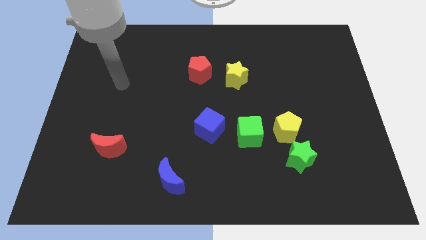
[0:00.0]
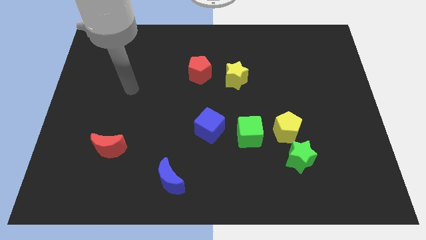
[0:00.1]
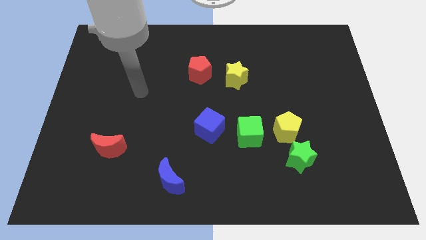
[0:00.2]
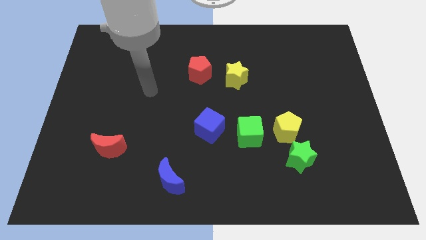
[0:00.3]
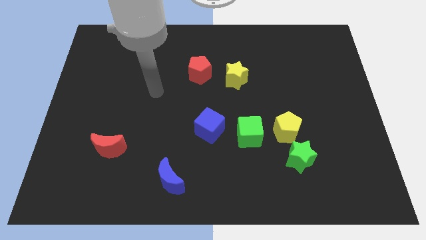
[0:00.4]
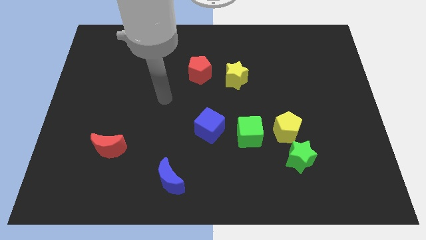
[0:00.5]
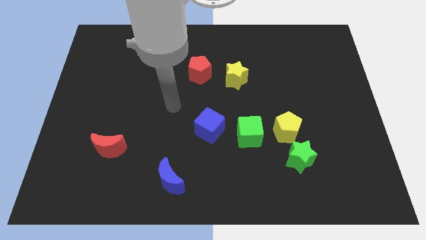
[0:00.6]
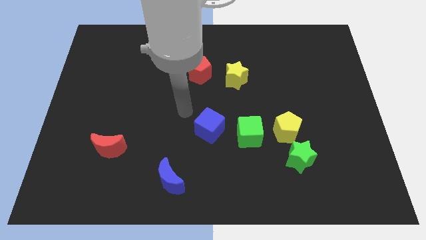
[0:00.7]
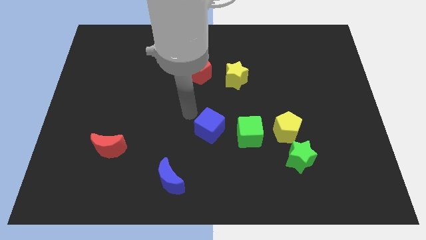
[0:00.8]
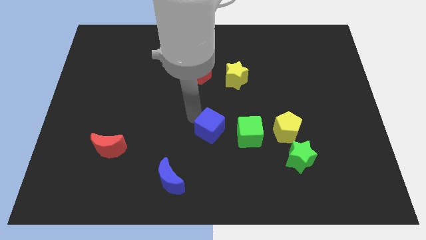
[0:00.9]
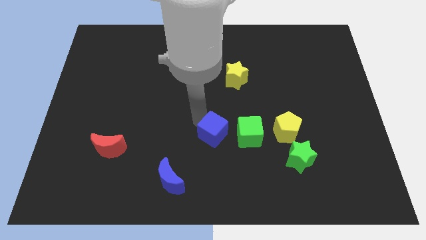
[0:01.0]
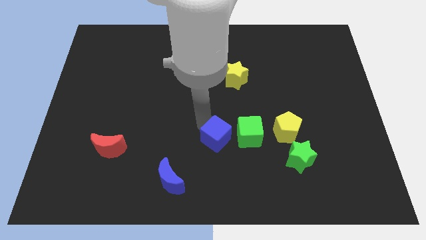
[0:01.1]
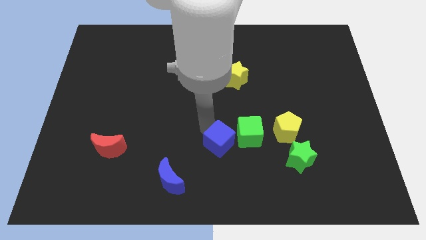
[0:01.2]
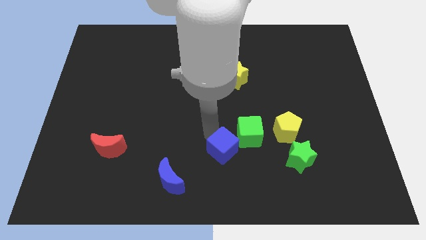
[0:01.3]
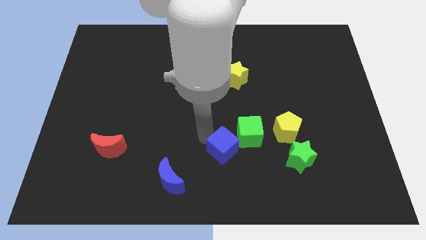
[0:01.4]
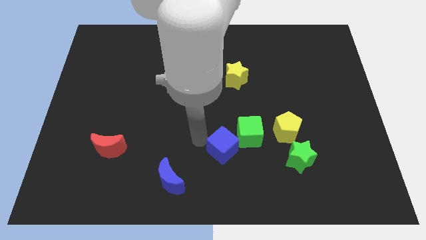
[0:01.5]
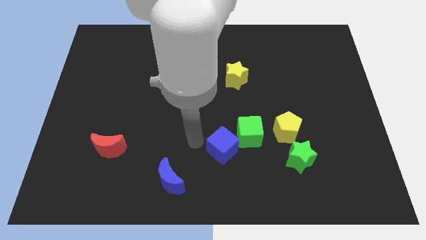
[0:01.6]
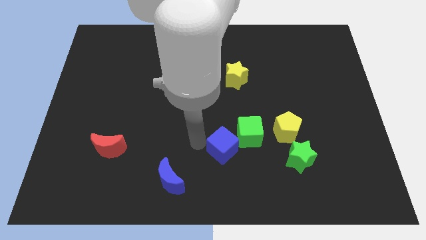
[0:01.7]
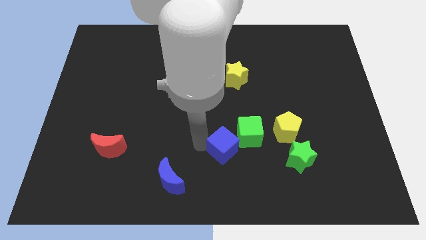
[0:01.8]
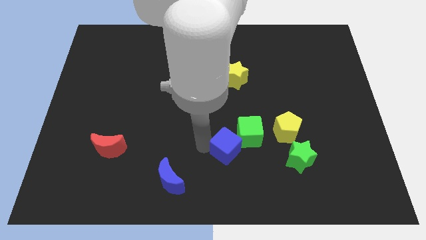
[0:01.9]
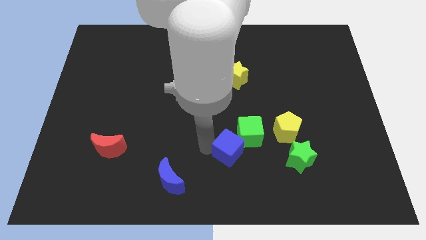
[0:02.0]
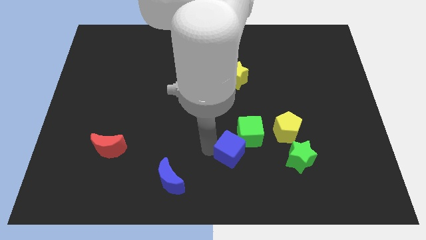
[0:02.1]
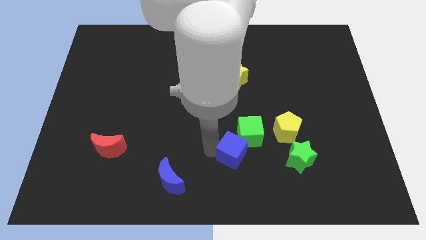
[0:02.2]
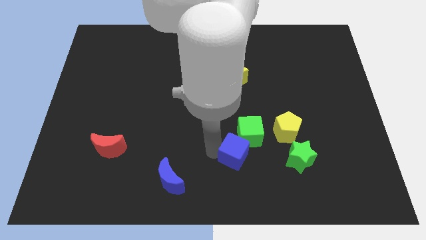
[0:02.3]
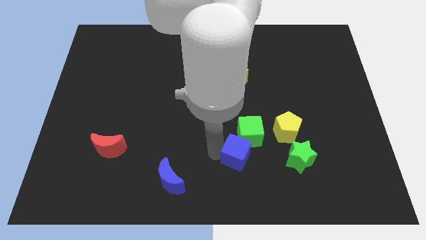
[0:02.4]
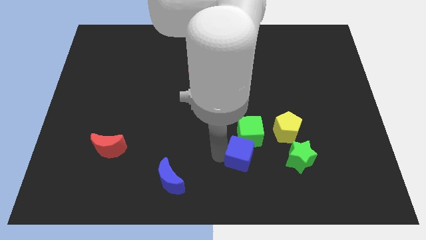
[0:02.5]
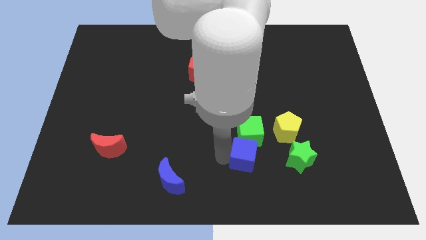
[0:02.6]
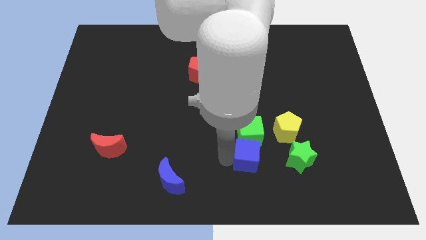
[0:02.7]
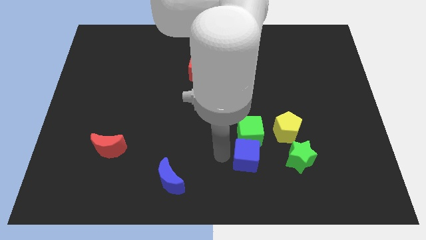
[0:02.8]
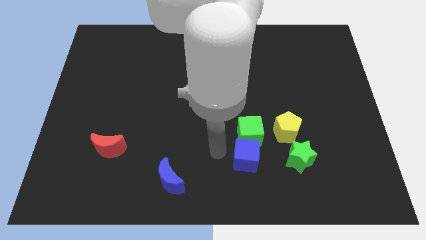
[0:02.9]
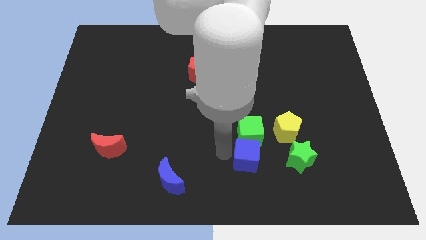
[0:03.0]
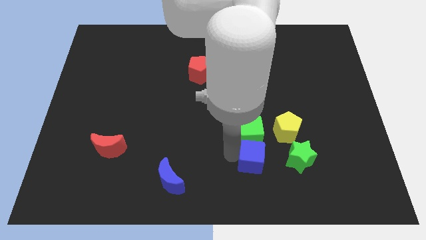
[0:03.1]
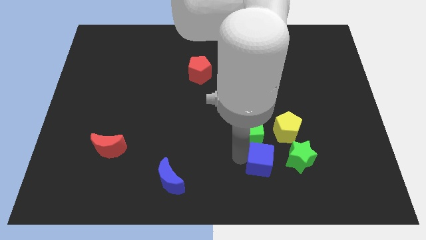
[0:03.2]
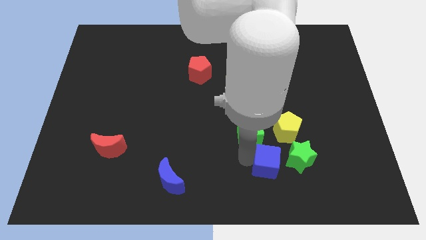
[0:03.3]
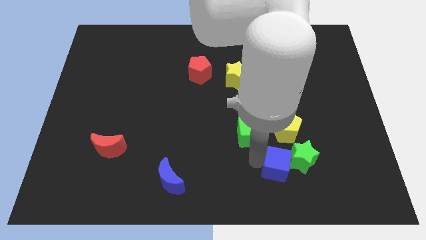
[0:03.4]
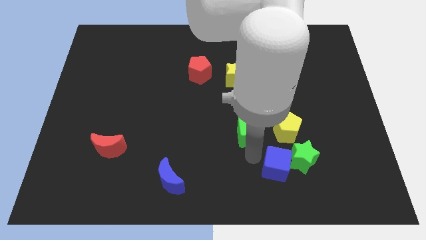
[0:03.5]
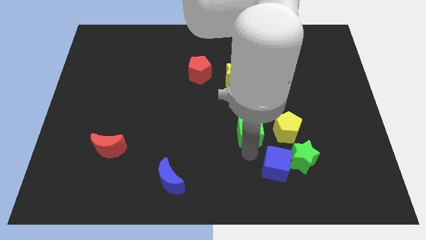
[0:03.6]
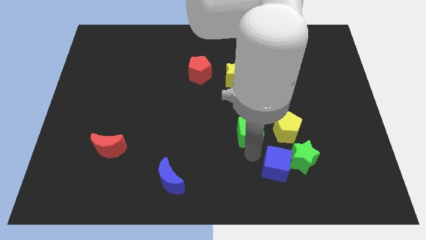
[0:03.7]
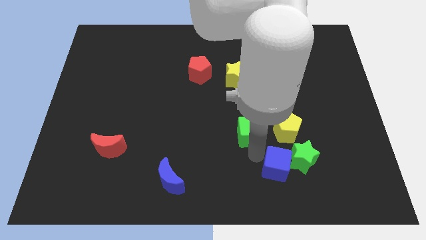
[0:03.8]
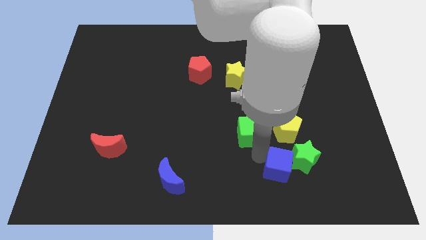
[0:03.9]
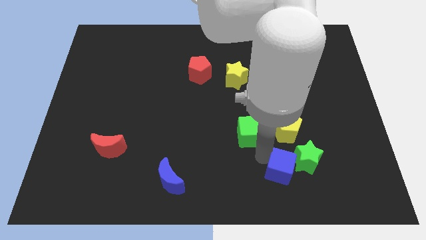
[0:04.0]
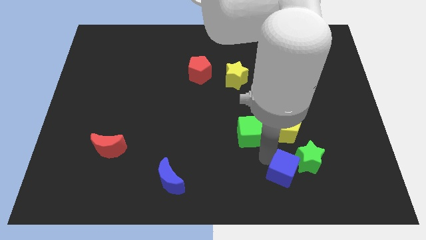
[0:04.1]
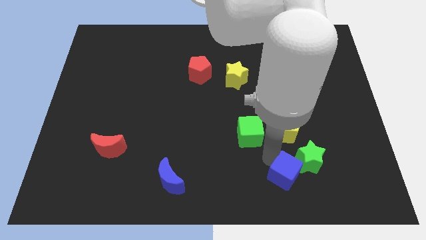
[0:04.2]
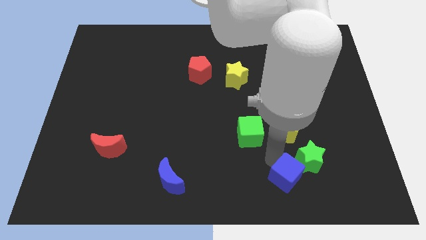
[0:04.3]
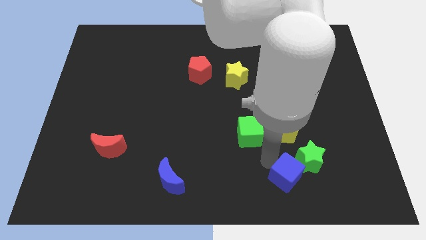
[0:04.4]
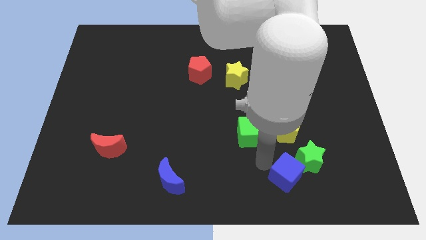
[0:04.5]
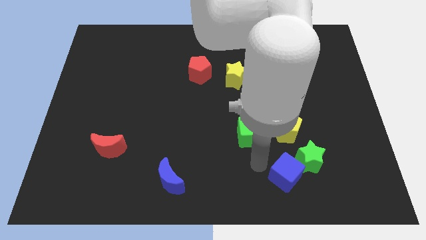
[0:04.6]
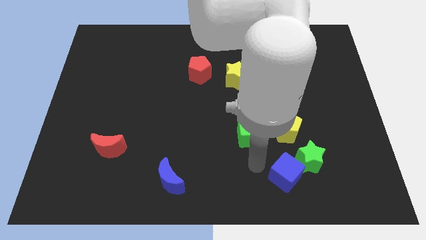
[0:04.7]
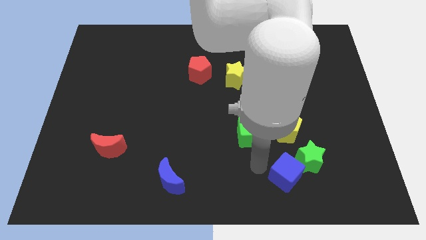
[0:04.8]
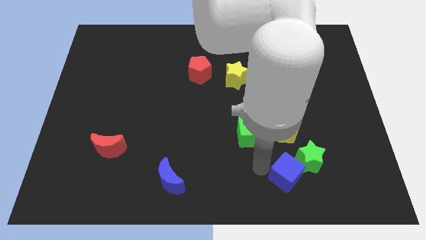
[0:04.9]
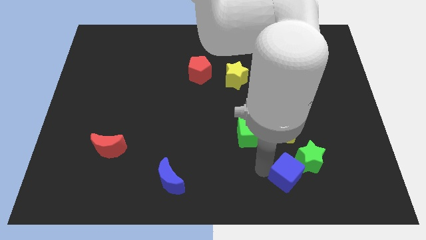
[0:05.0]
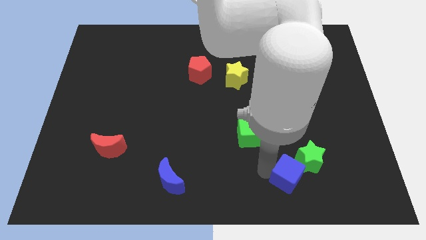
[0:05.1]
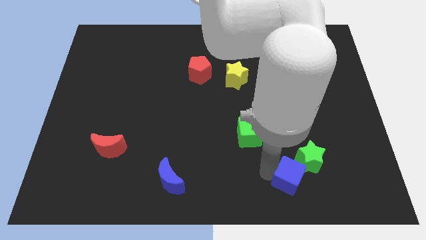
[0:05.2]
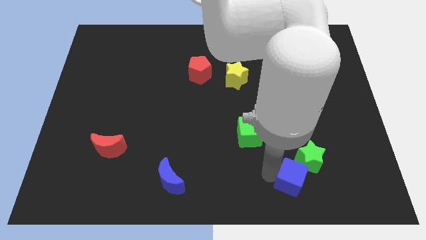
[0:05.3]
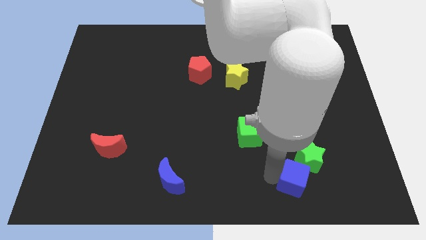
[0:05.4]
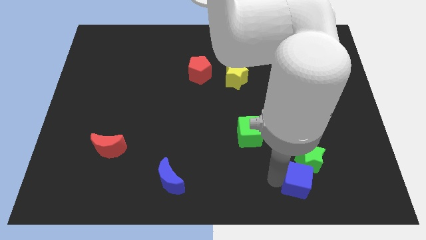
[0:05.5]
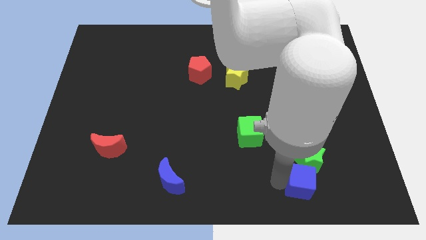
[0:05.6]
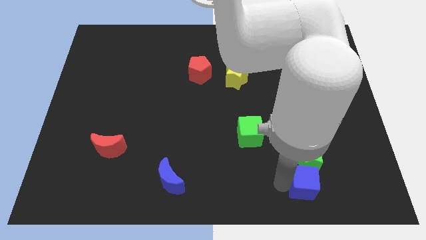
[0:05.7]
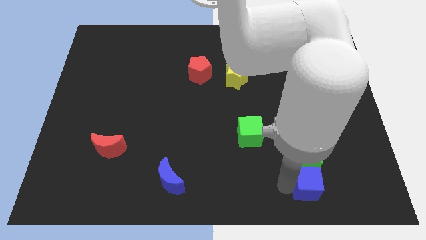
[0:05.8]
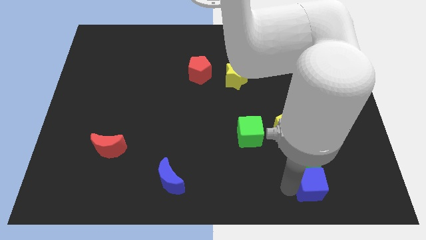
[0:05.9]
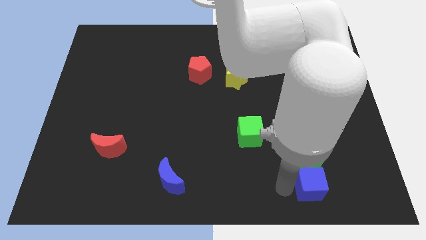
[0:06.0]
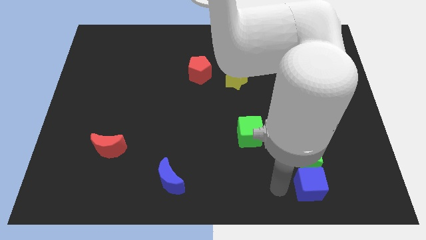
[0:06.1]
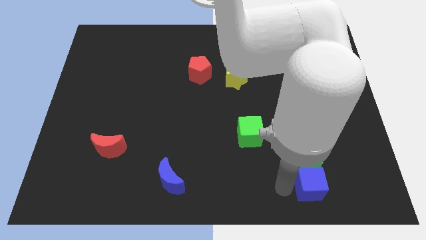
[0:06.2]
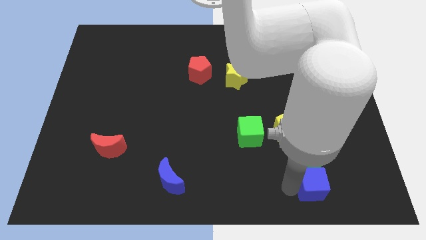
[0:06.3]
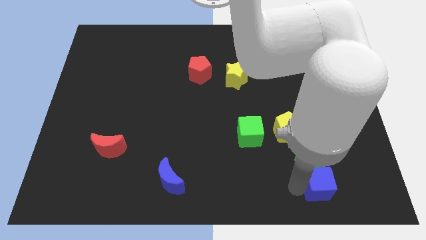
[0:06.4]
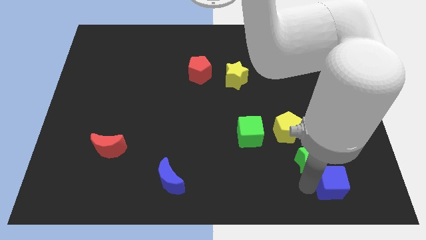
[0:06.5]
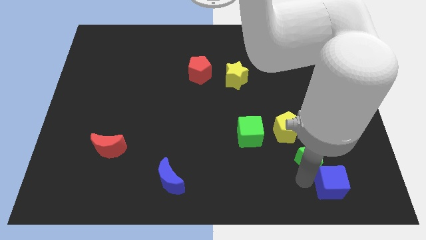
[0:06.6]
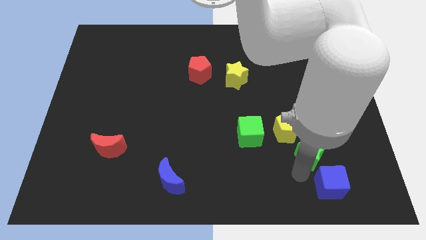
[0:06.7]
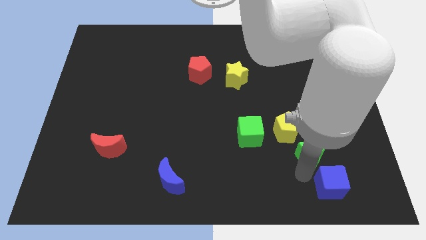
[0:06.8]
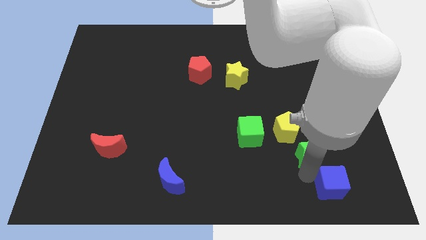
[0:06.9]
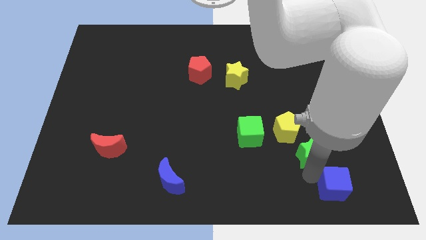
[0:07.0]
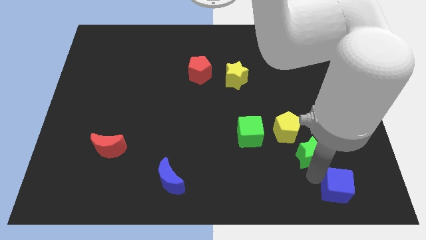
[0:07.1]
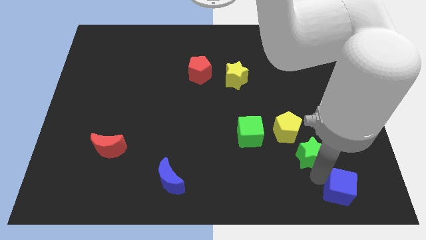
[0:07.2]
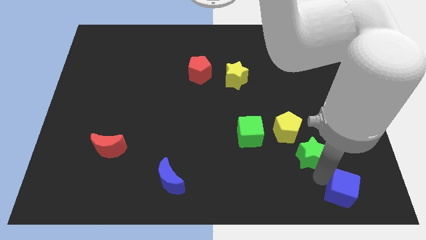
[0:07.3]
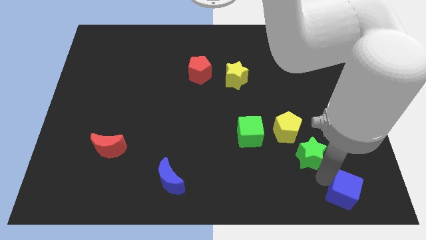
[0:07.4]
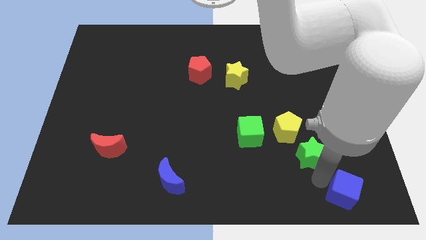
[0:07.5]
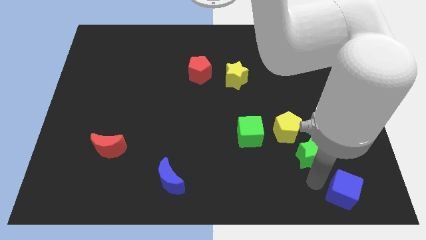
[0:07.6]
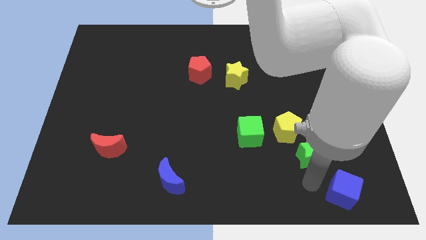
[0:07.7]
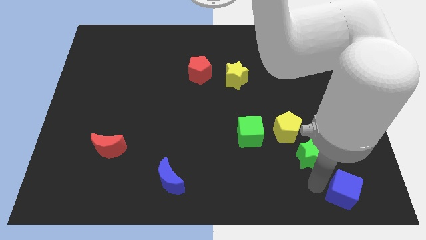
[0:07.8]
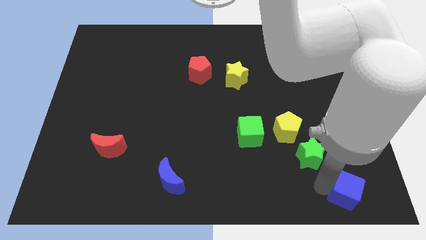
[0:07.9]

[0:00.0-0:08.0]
put the blue cube to the lower right corner
